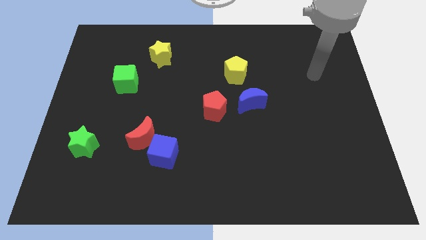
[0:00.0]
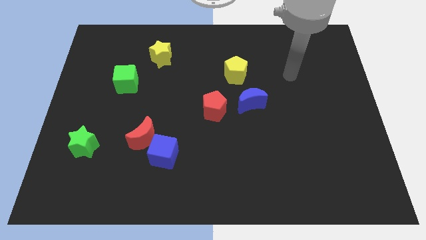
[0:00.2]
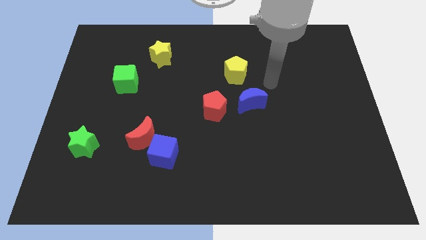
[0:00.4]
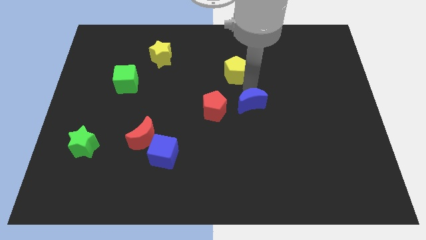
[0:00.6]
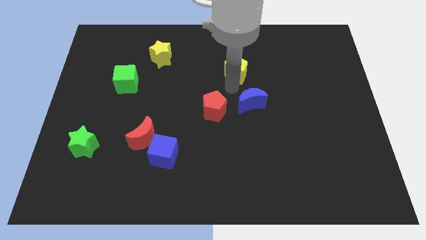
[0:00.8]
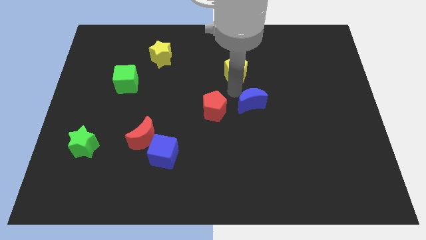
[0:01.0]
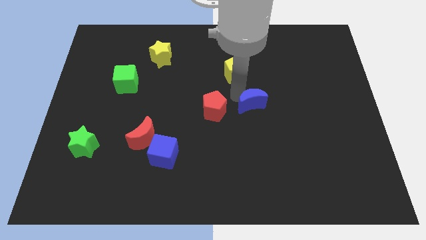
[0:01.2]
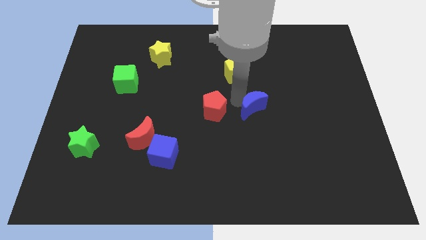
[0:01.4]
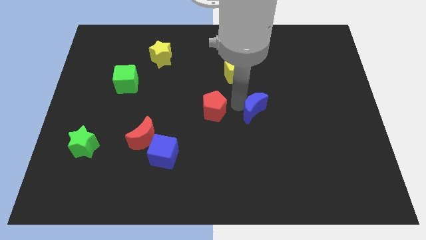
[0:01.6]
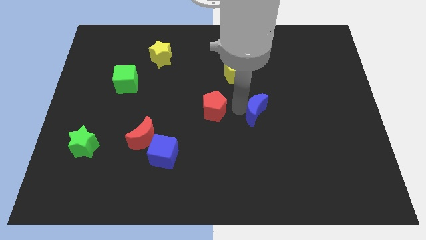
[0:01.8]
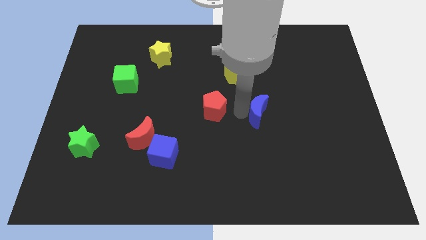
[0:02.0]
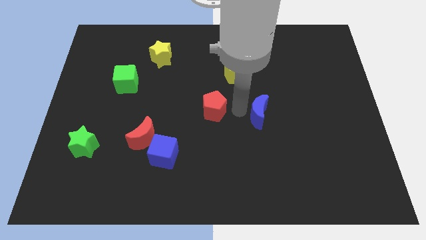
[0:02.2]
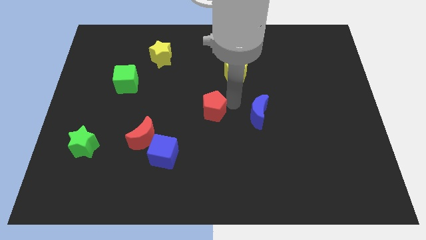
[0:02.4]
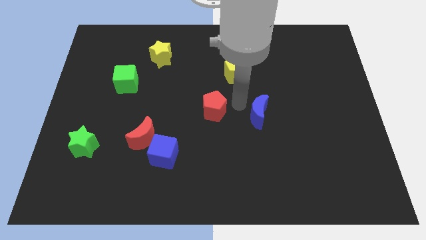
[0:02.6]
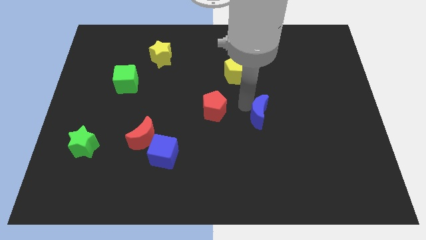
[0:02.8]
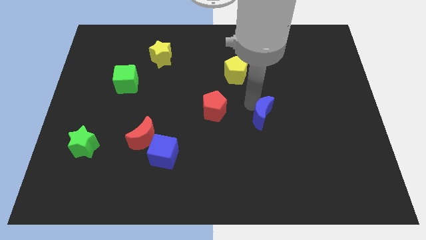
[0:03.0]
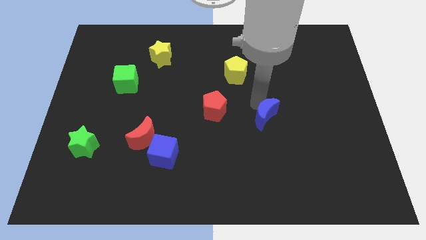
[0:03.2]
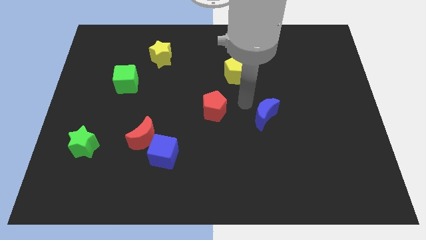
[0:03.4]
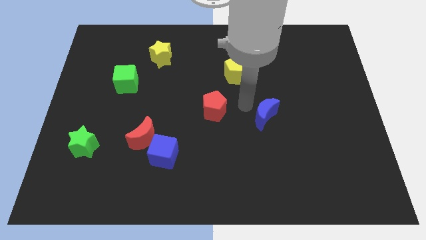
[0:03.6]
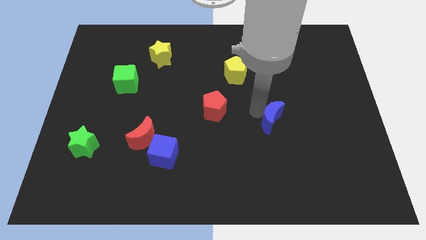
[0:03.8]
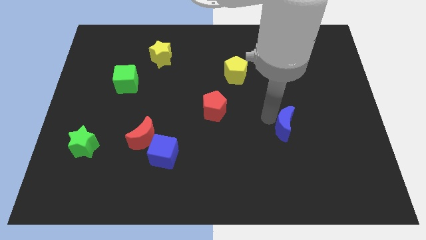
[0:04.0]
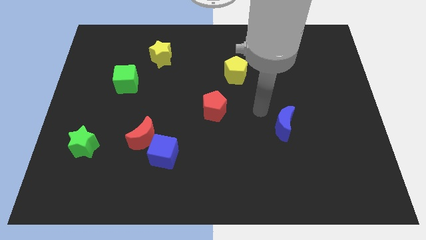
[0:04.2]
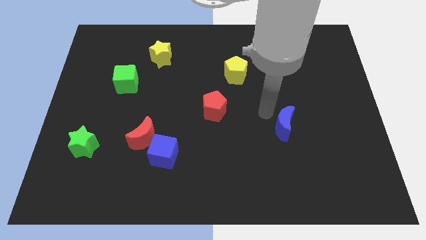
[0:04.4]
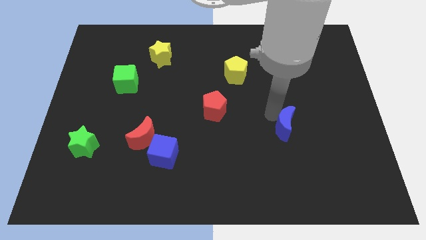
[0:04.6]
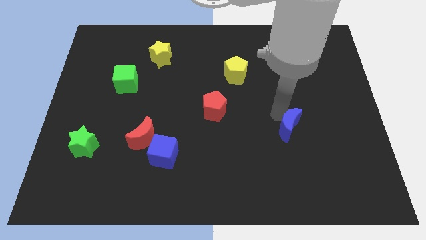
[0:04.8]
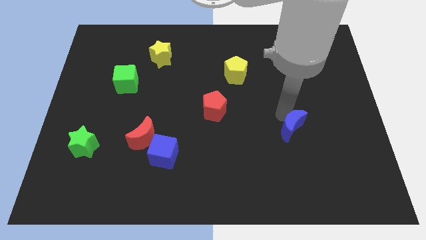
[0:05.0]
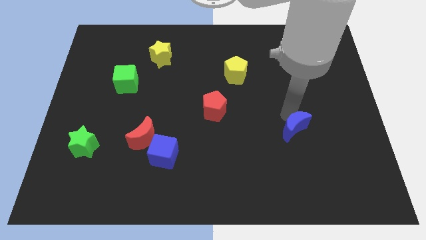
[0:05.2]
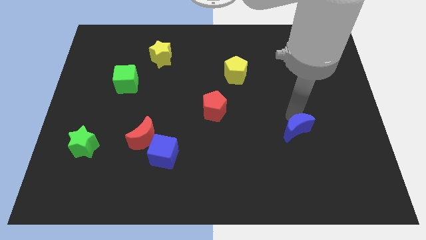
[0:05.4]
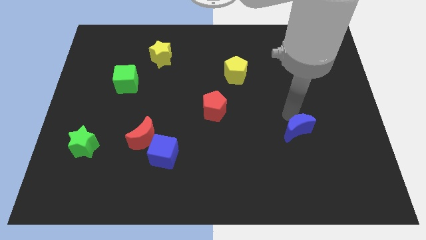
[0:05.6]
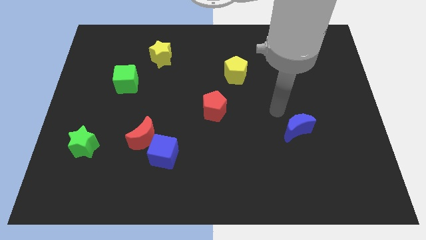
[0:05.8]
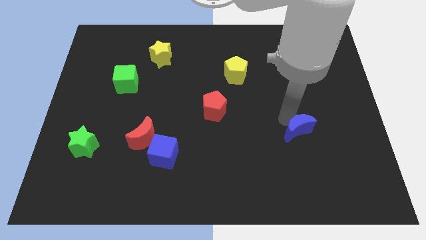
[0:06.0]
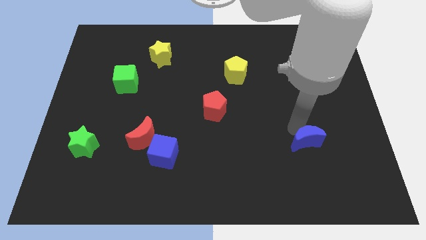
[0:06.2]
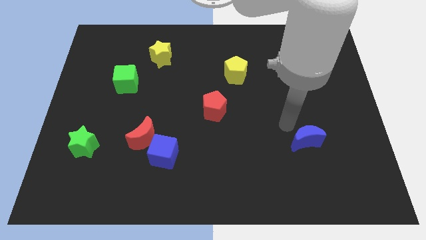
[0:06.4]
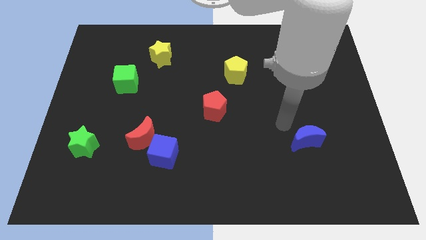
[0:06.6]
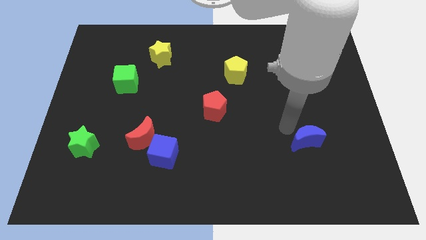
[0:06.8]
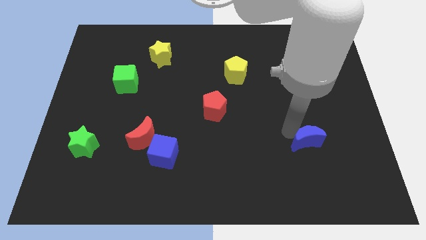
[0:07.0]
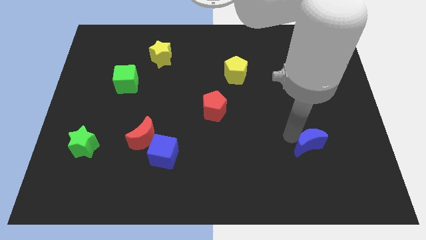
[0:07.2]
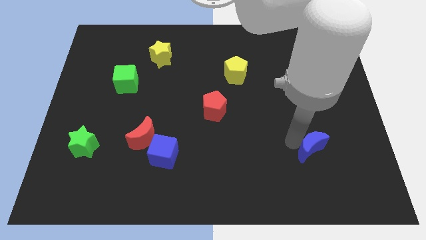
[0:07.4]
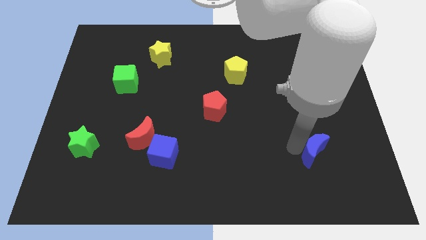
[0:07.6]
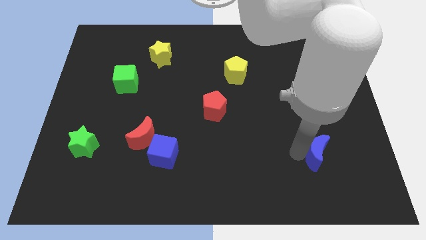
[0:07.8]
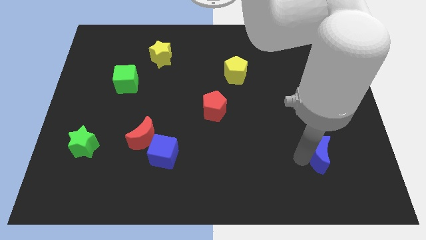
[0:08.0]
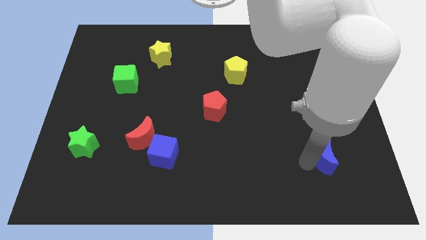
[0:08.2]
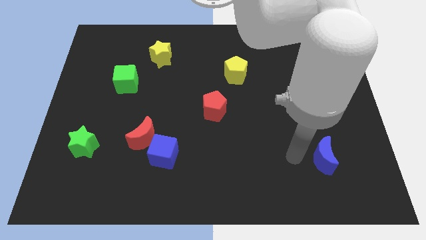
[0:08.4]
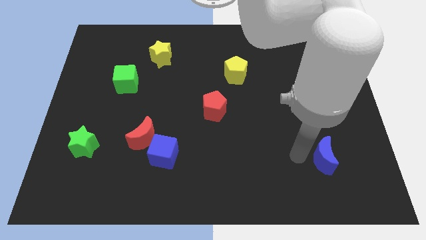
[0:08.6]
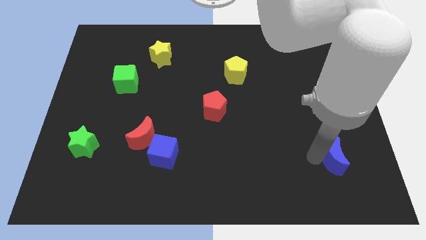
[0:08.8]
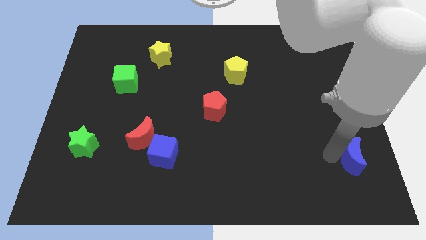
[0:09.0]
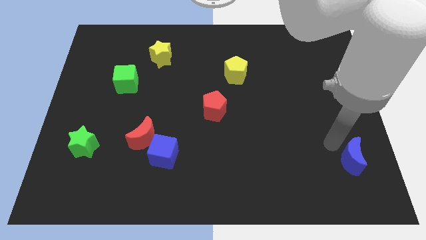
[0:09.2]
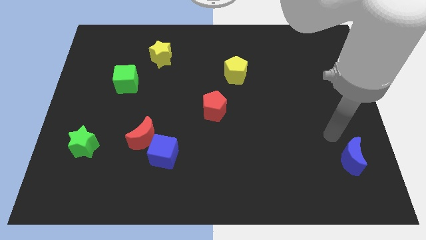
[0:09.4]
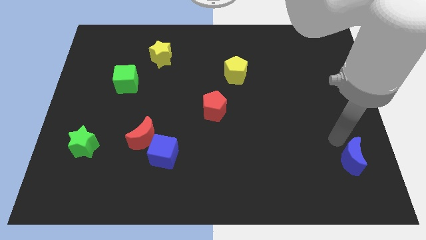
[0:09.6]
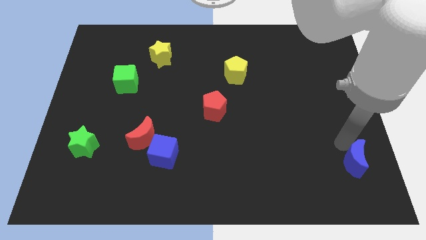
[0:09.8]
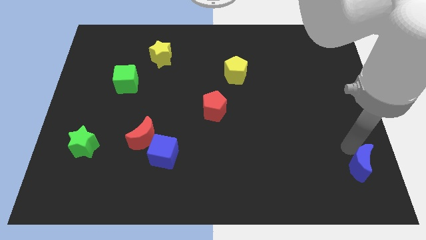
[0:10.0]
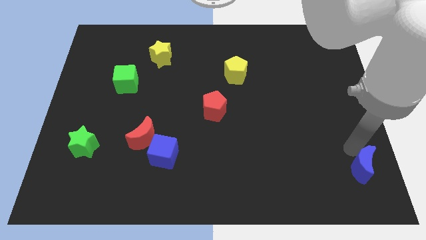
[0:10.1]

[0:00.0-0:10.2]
slide the blue moon to the lower right corner

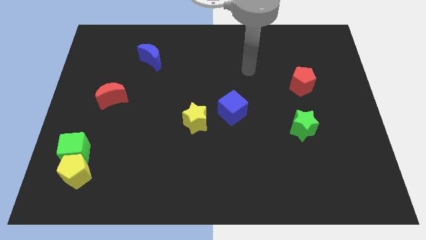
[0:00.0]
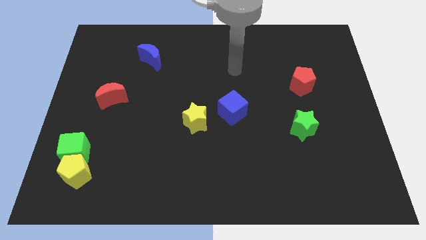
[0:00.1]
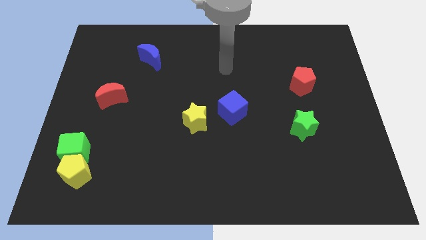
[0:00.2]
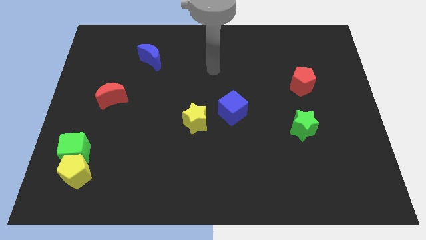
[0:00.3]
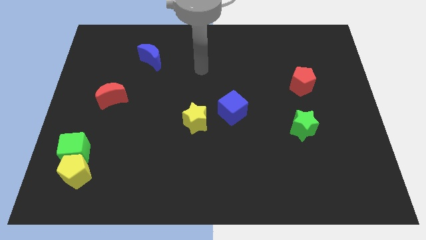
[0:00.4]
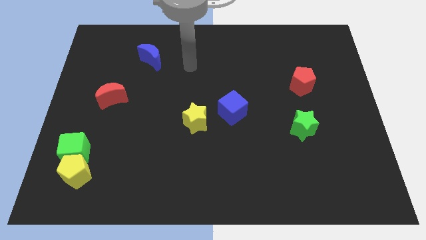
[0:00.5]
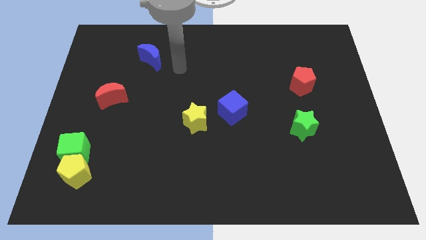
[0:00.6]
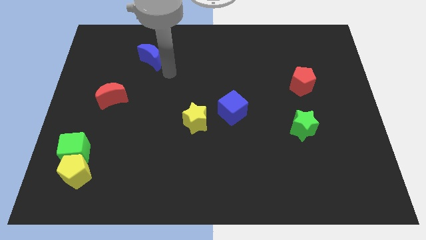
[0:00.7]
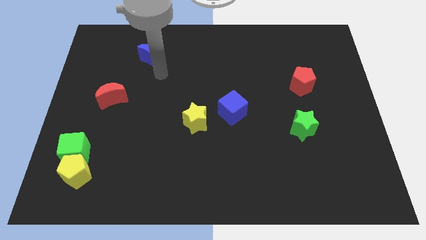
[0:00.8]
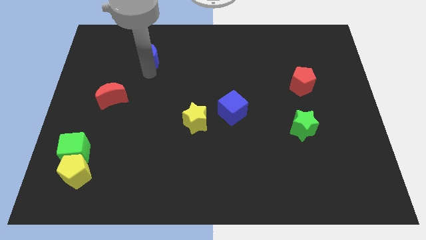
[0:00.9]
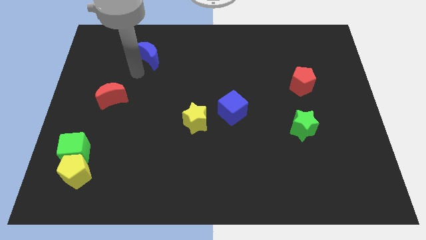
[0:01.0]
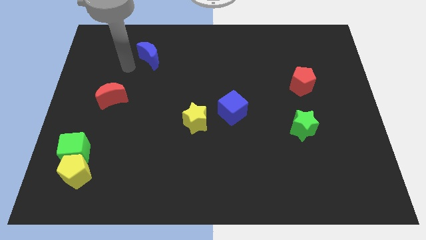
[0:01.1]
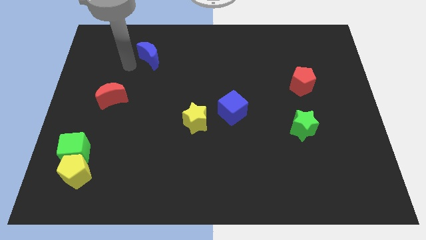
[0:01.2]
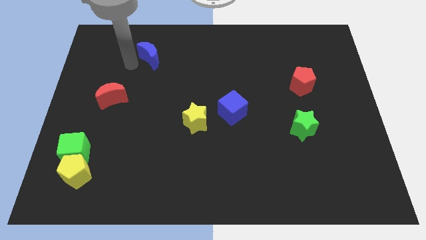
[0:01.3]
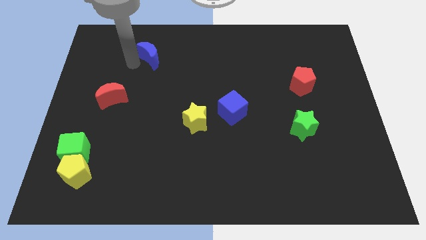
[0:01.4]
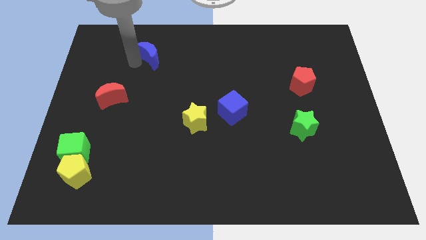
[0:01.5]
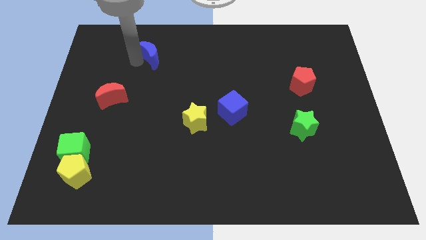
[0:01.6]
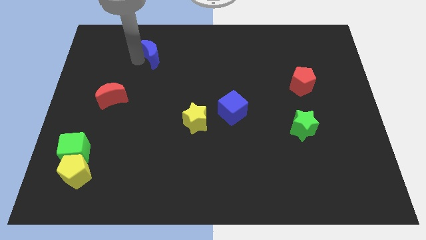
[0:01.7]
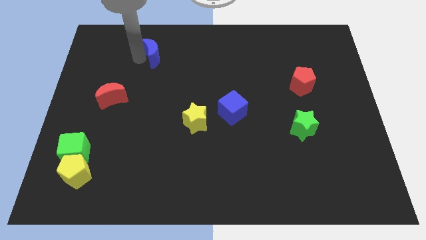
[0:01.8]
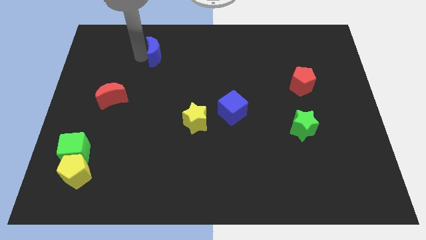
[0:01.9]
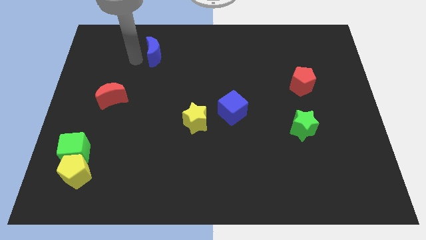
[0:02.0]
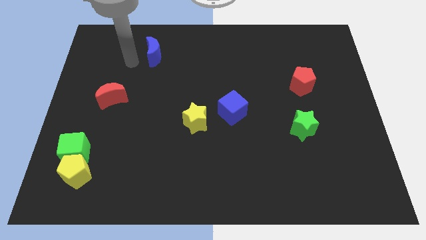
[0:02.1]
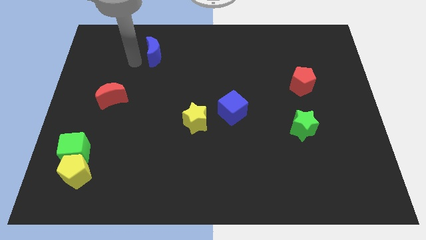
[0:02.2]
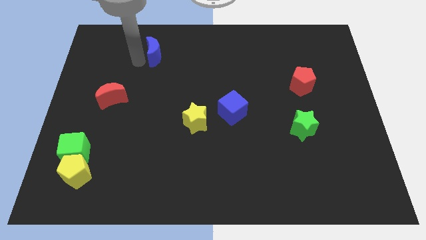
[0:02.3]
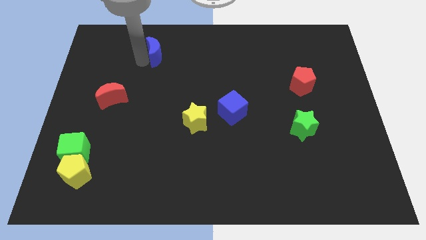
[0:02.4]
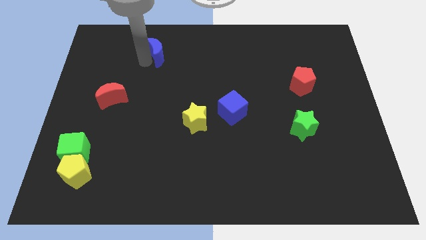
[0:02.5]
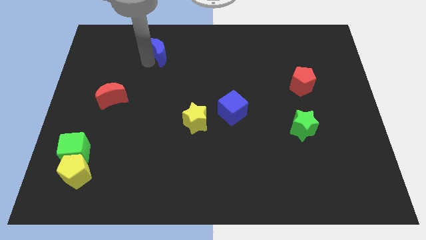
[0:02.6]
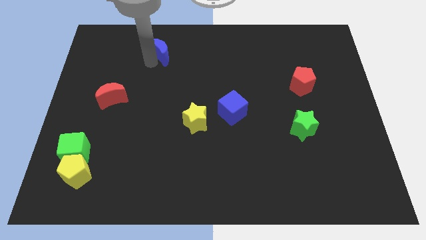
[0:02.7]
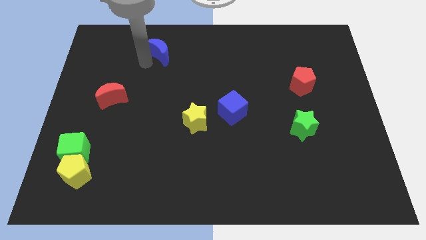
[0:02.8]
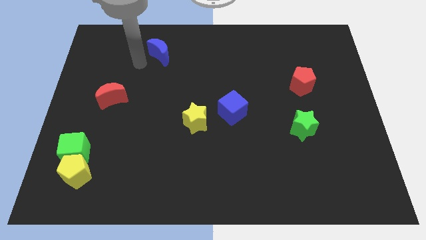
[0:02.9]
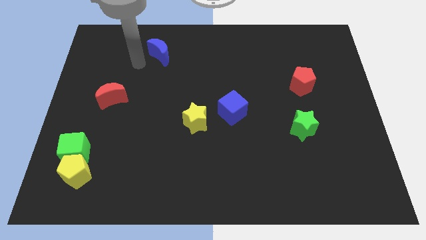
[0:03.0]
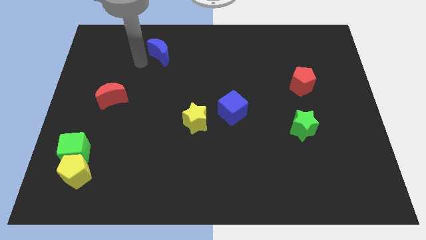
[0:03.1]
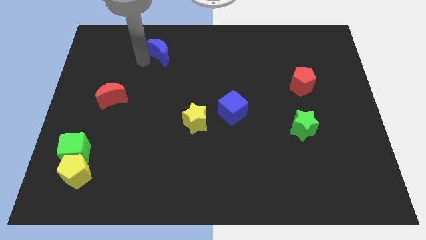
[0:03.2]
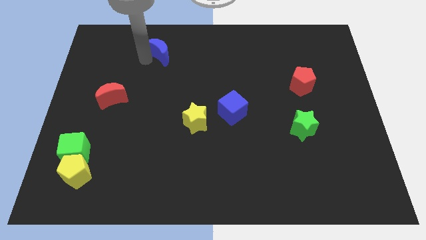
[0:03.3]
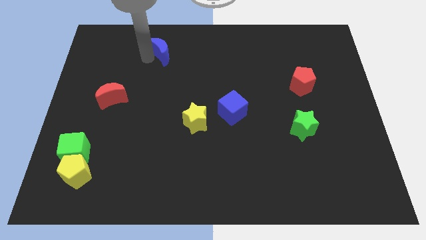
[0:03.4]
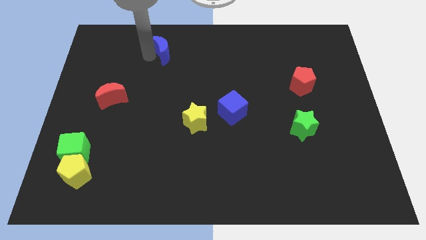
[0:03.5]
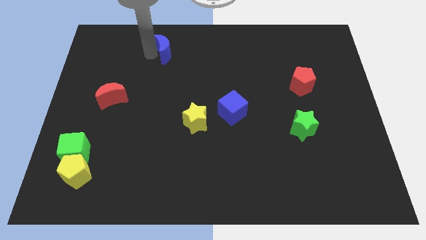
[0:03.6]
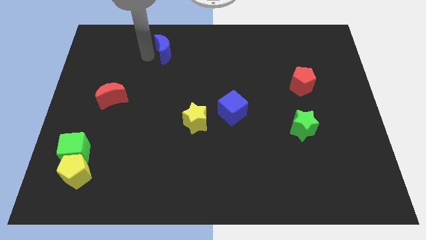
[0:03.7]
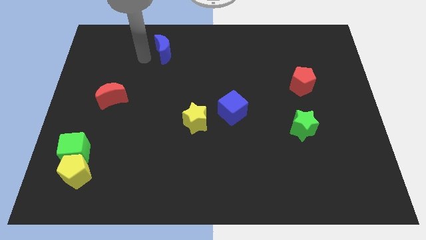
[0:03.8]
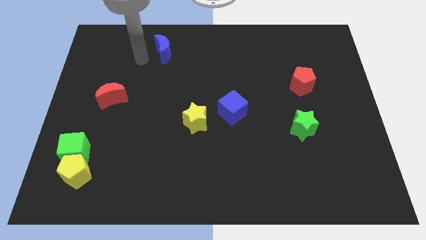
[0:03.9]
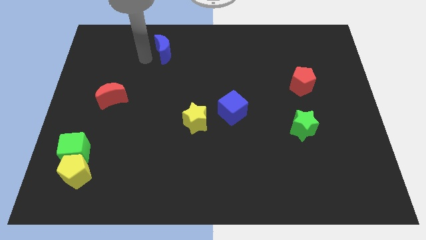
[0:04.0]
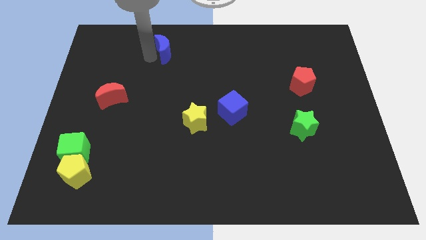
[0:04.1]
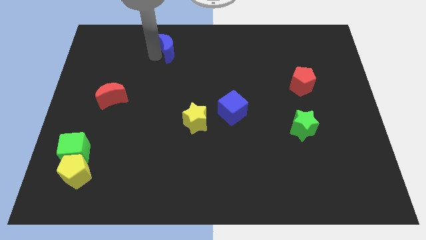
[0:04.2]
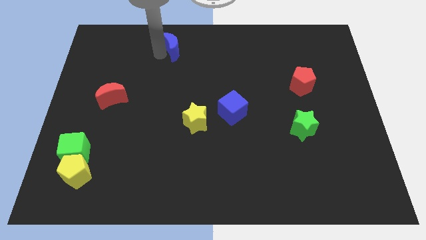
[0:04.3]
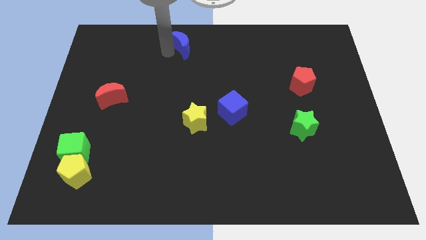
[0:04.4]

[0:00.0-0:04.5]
put the blue moon to the towards your base
